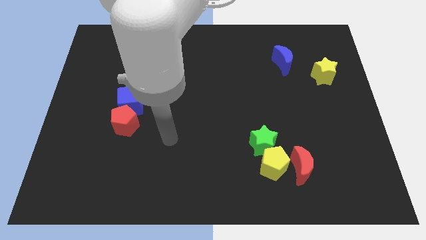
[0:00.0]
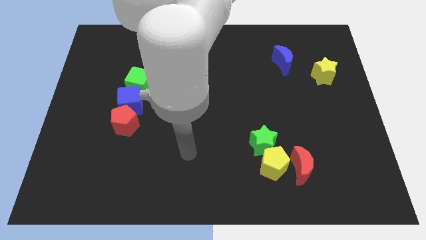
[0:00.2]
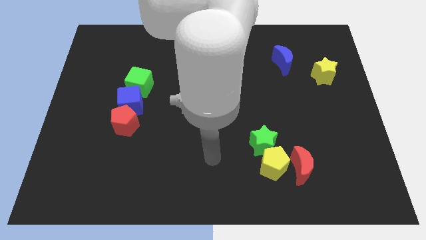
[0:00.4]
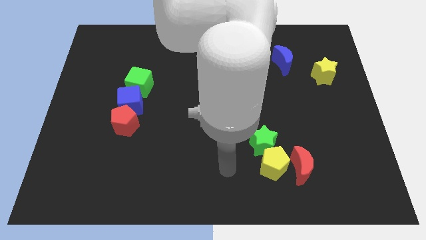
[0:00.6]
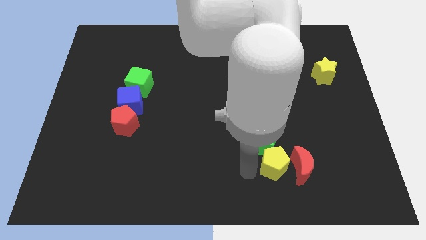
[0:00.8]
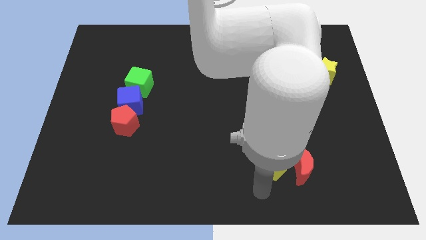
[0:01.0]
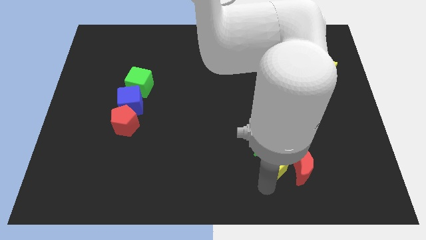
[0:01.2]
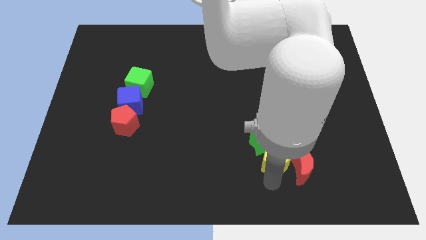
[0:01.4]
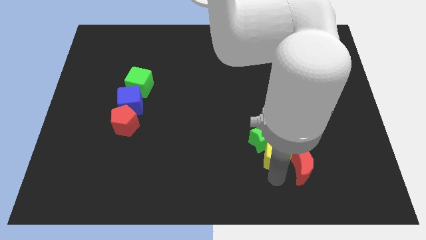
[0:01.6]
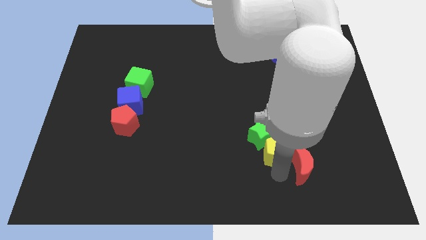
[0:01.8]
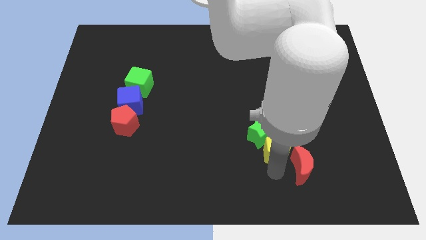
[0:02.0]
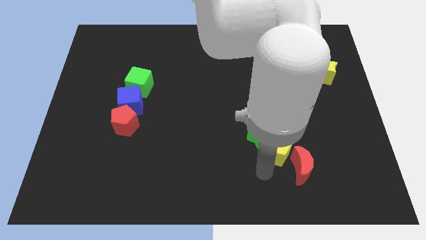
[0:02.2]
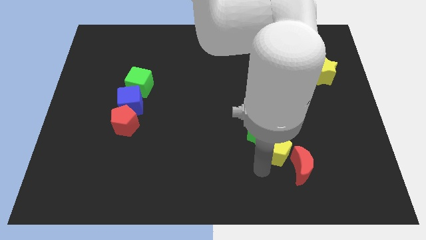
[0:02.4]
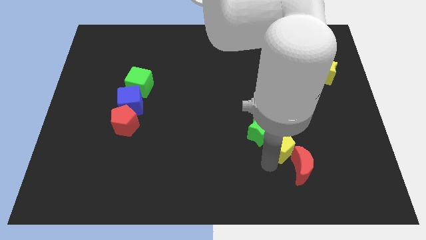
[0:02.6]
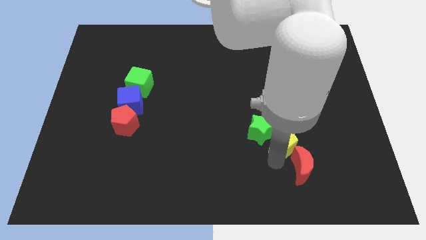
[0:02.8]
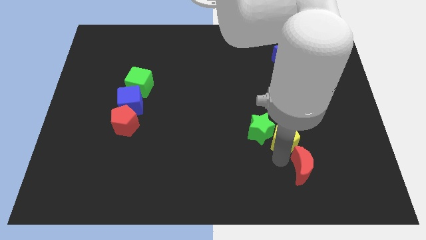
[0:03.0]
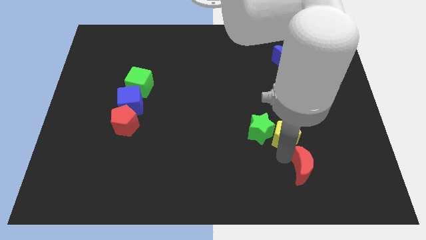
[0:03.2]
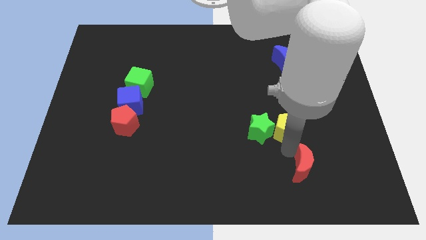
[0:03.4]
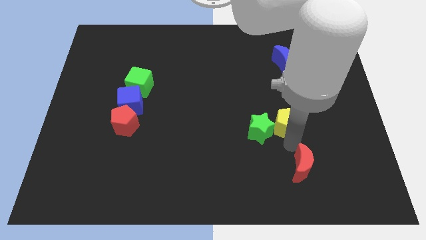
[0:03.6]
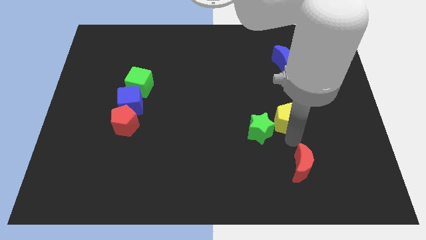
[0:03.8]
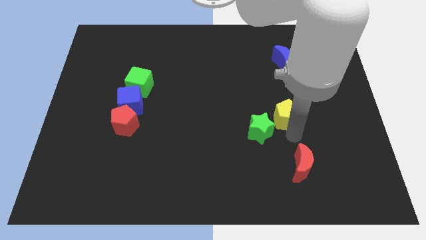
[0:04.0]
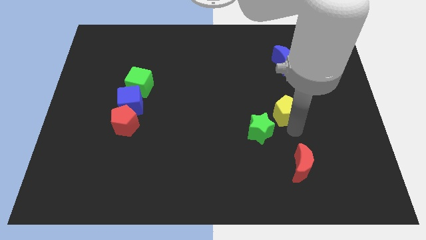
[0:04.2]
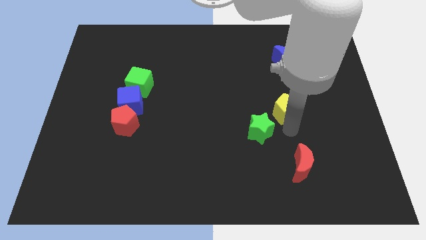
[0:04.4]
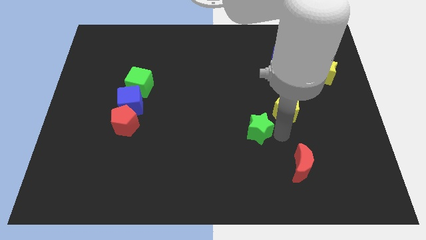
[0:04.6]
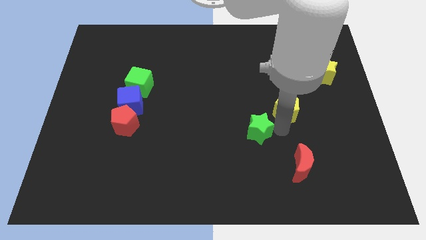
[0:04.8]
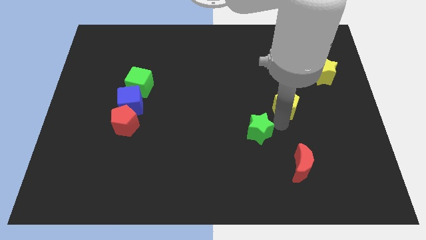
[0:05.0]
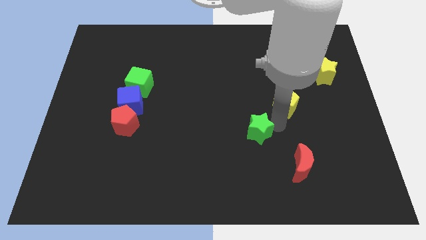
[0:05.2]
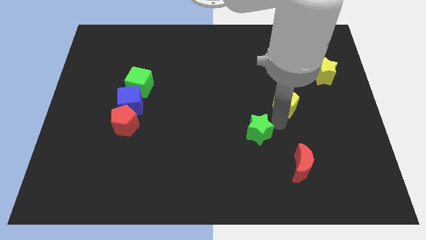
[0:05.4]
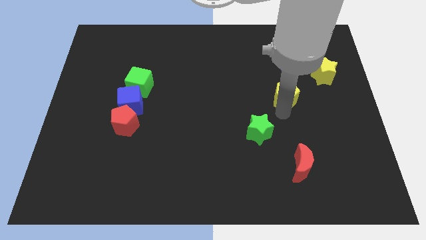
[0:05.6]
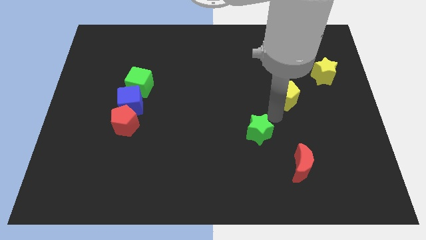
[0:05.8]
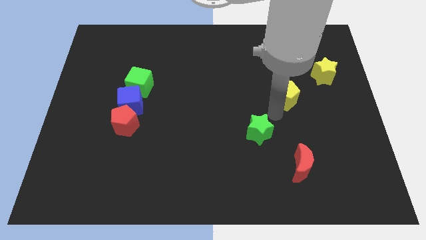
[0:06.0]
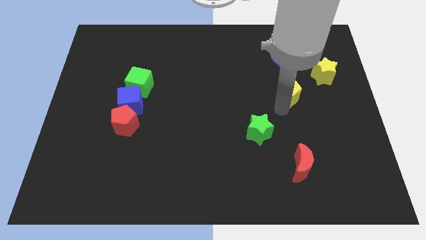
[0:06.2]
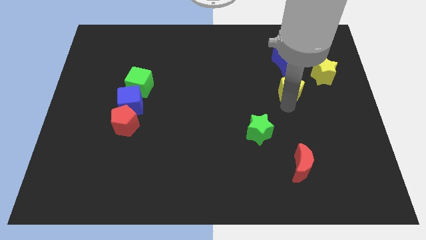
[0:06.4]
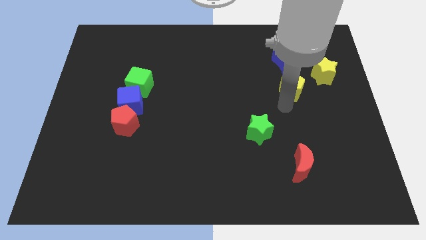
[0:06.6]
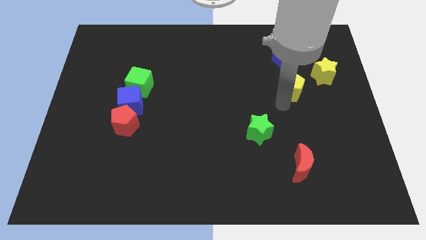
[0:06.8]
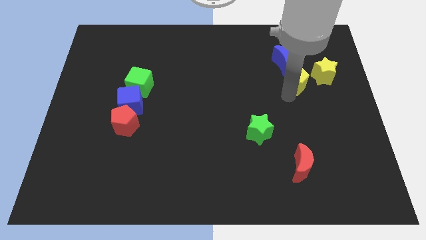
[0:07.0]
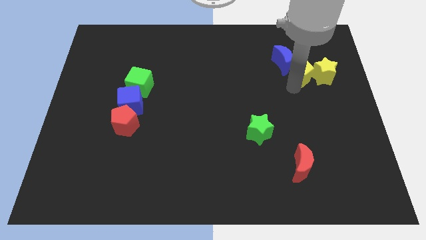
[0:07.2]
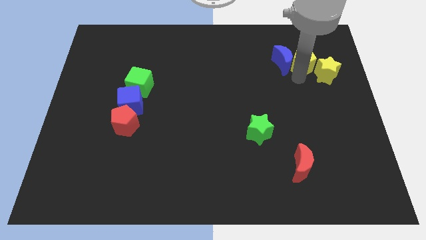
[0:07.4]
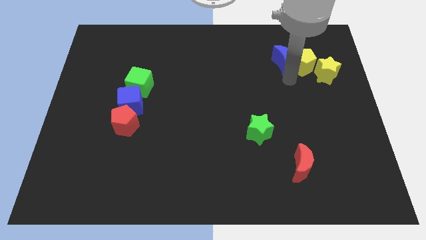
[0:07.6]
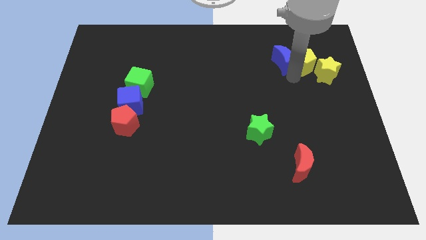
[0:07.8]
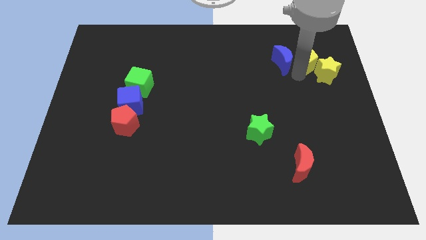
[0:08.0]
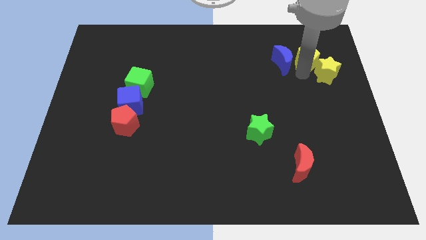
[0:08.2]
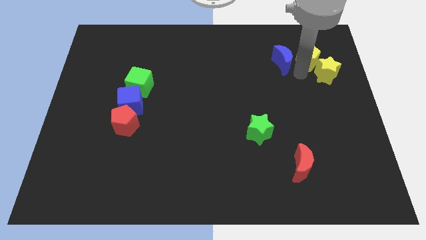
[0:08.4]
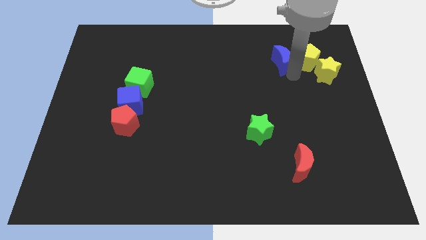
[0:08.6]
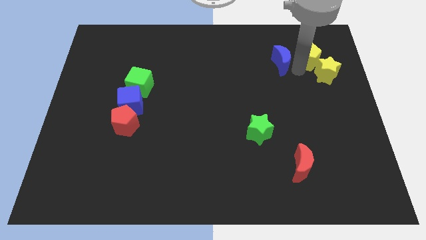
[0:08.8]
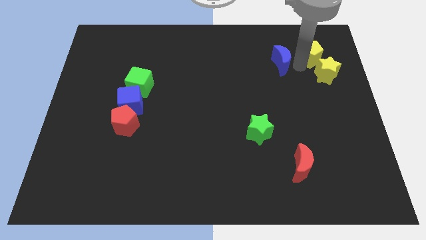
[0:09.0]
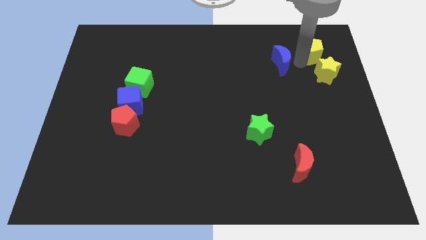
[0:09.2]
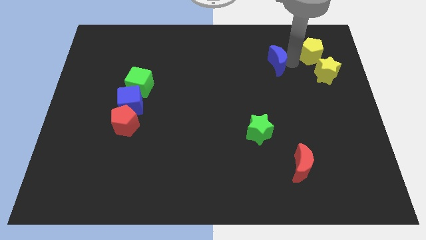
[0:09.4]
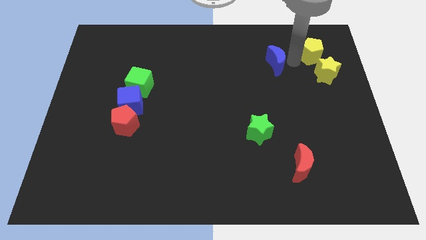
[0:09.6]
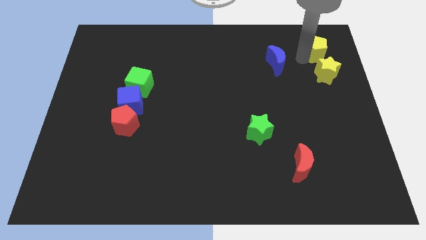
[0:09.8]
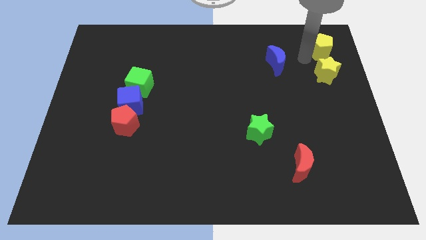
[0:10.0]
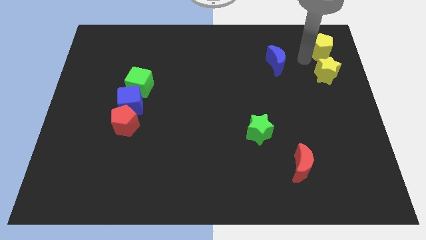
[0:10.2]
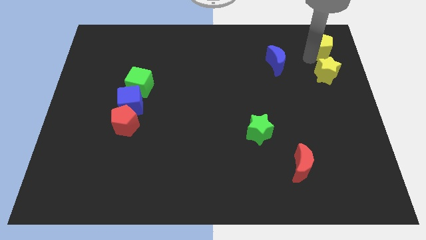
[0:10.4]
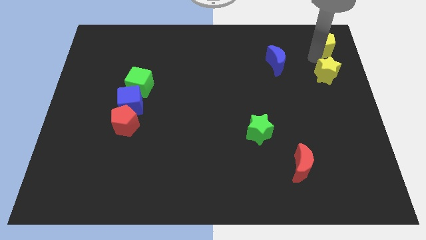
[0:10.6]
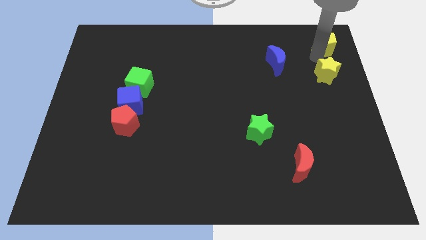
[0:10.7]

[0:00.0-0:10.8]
slide the yellow pentagon to the top right corner

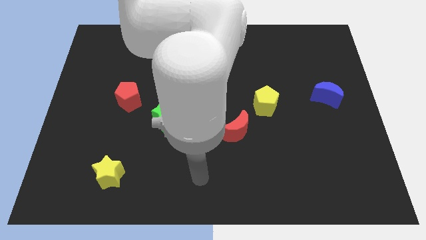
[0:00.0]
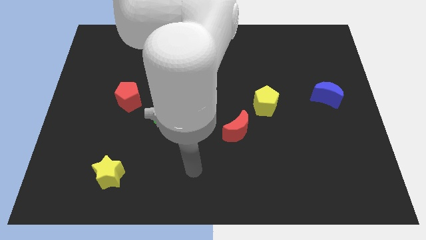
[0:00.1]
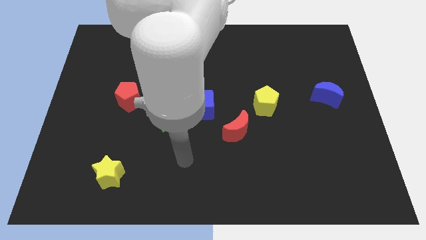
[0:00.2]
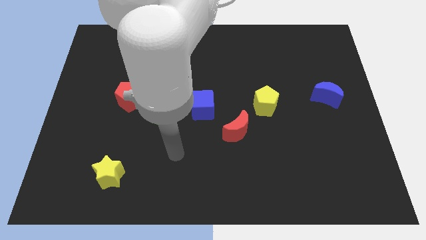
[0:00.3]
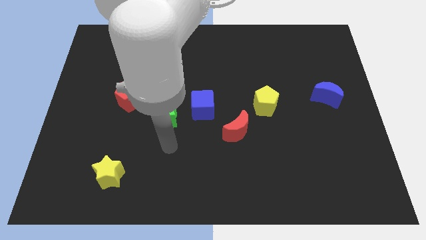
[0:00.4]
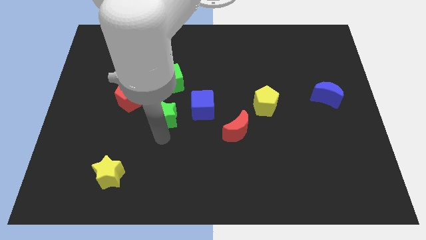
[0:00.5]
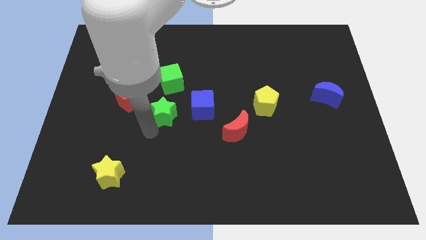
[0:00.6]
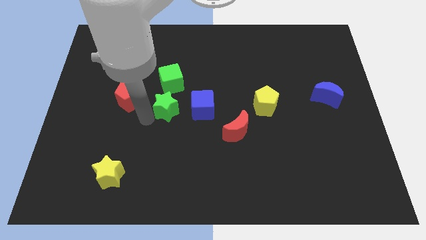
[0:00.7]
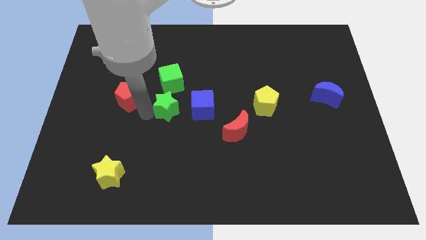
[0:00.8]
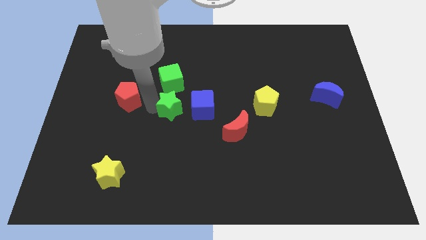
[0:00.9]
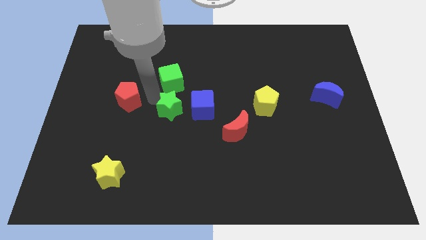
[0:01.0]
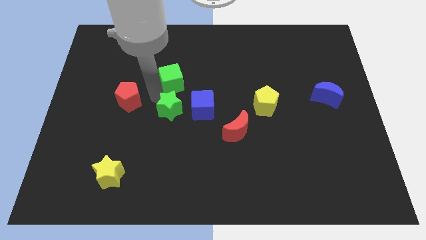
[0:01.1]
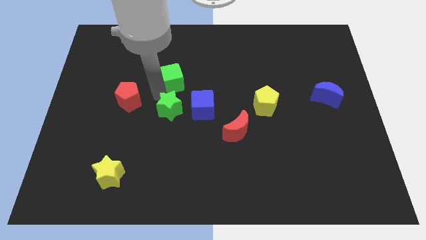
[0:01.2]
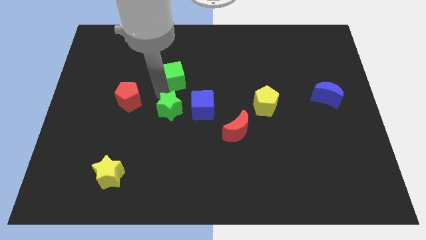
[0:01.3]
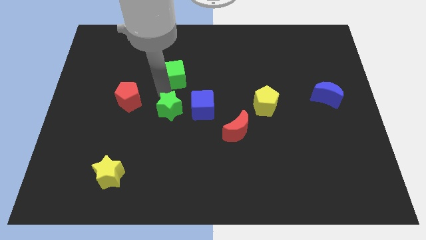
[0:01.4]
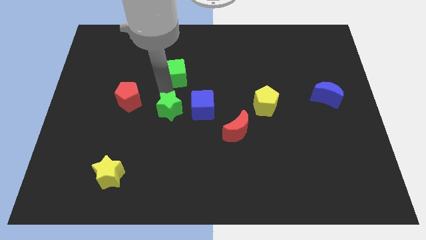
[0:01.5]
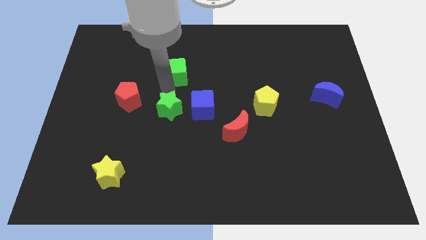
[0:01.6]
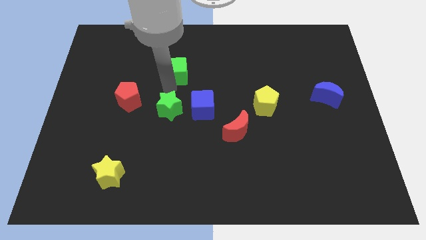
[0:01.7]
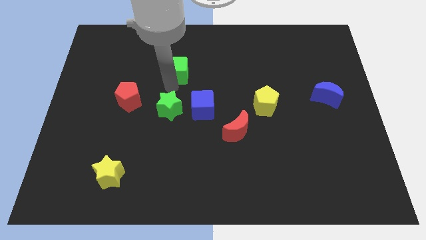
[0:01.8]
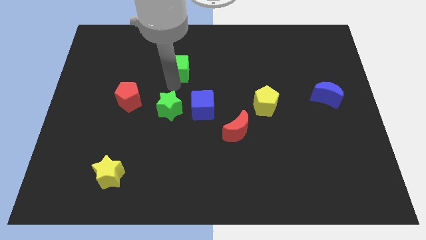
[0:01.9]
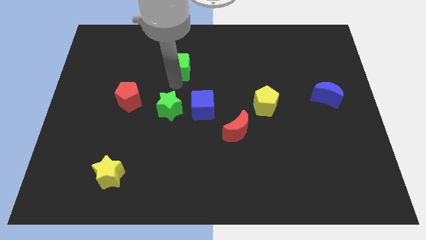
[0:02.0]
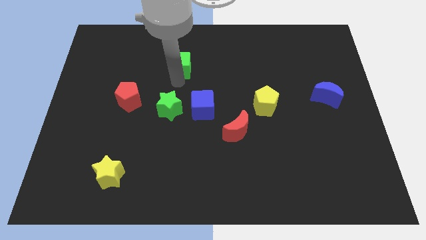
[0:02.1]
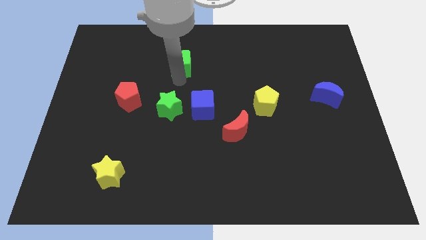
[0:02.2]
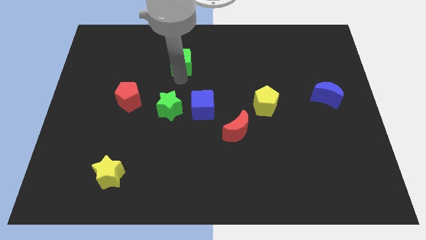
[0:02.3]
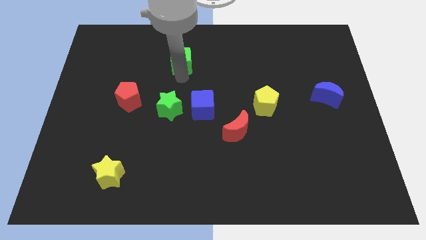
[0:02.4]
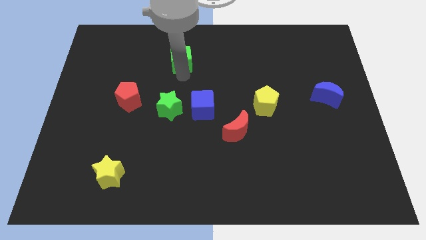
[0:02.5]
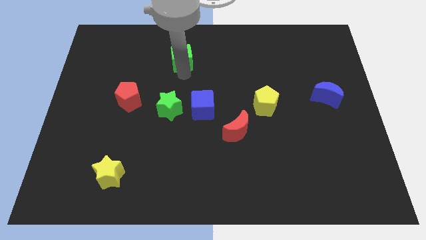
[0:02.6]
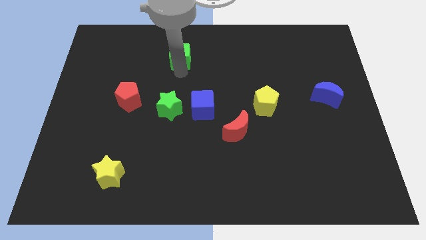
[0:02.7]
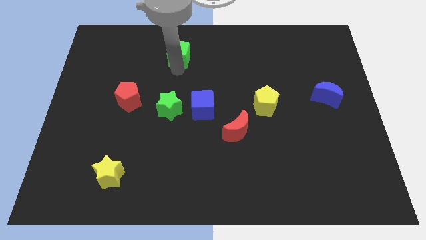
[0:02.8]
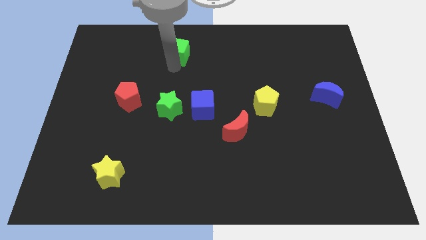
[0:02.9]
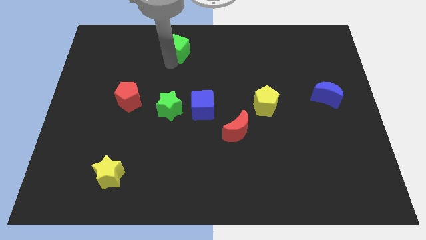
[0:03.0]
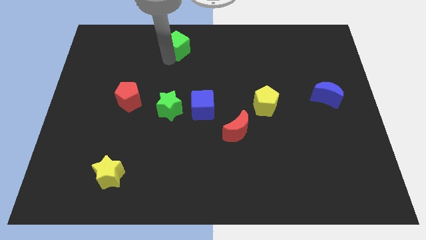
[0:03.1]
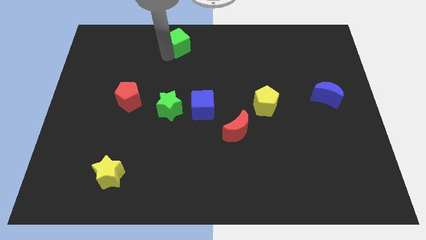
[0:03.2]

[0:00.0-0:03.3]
slide the green cube to the top
